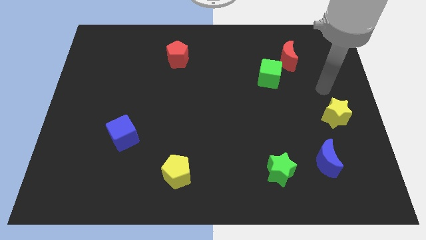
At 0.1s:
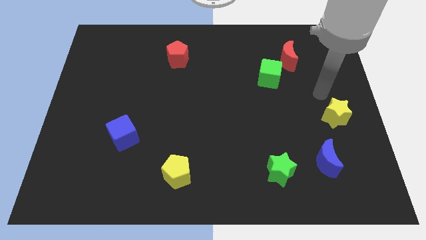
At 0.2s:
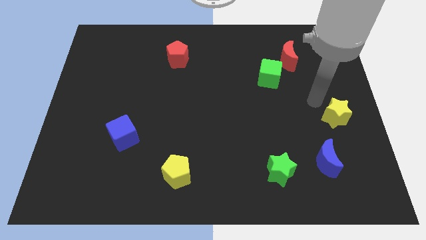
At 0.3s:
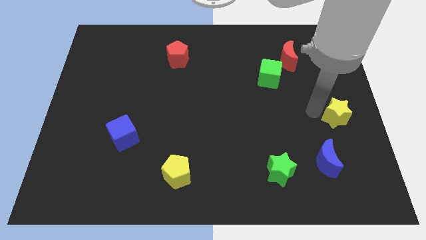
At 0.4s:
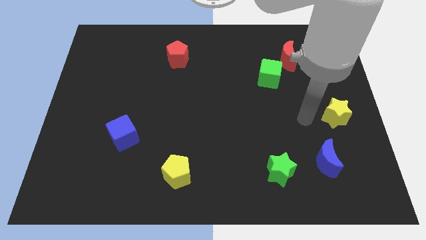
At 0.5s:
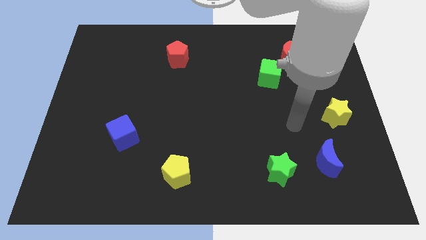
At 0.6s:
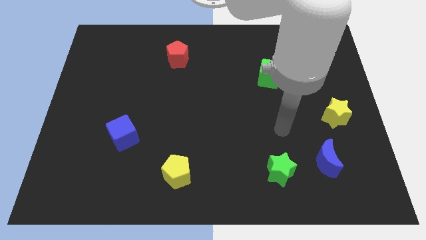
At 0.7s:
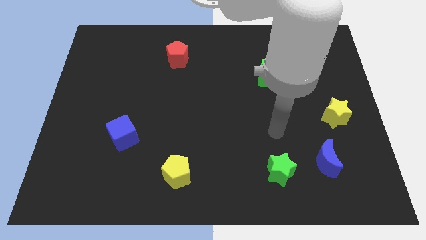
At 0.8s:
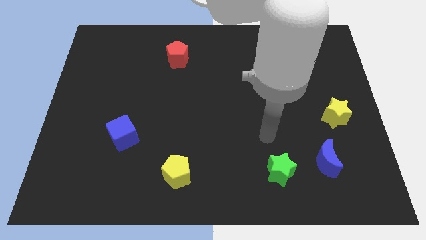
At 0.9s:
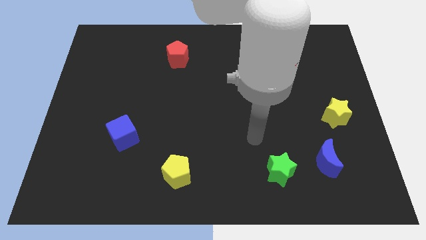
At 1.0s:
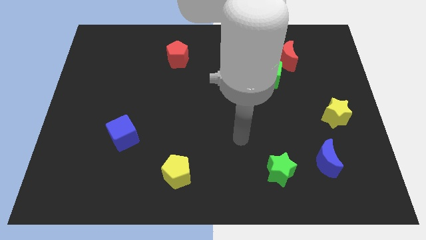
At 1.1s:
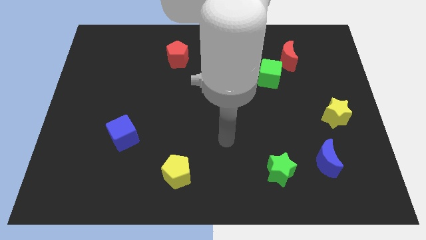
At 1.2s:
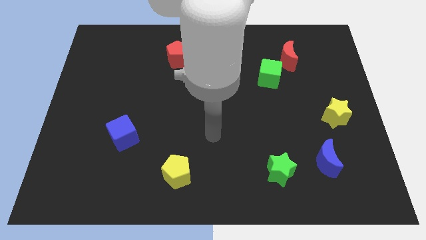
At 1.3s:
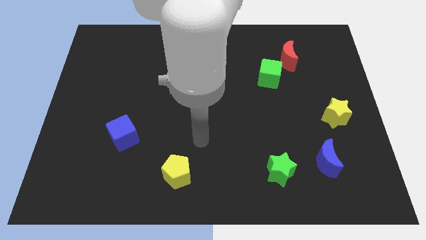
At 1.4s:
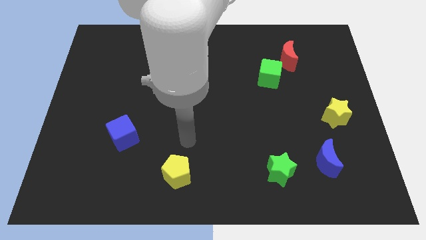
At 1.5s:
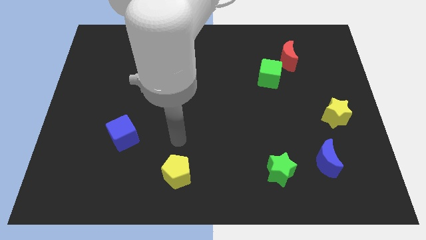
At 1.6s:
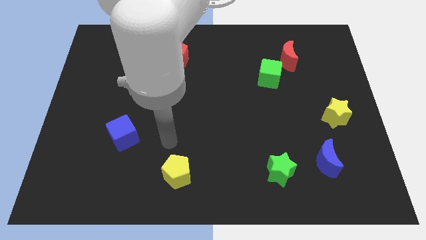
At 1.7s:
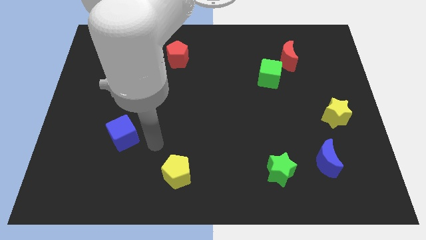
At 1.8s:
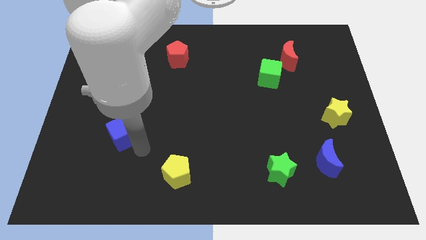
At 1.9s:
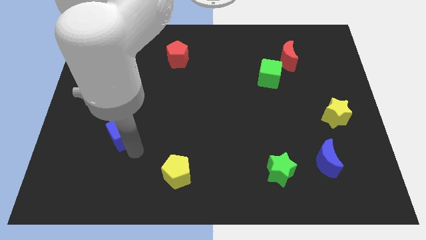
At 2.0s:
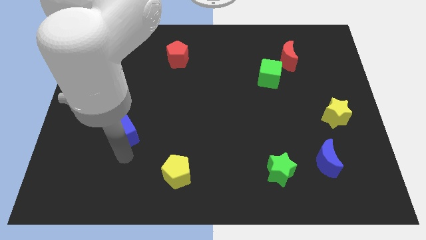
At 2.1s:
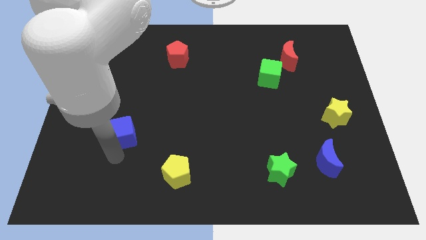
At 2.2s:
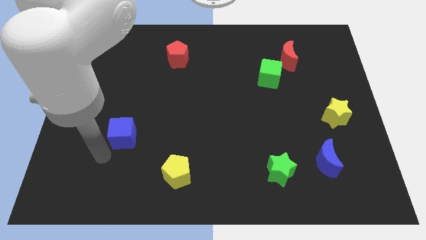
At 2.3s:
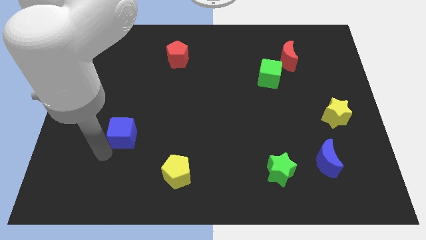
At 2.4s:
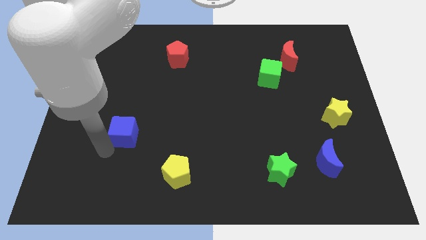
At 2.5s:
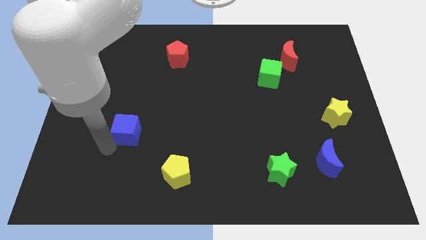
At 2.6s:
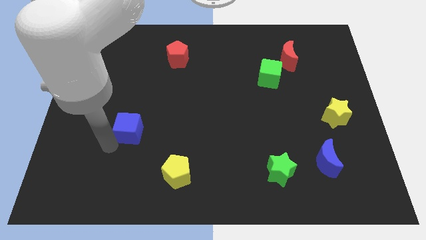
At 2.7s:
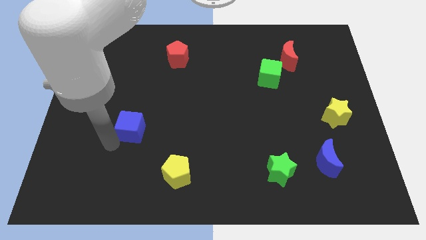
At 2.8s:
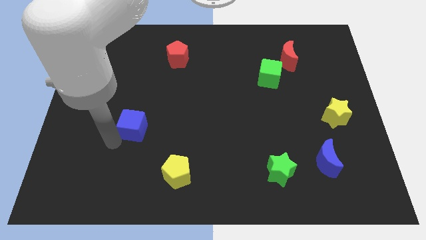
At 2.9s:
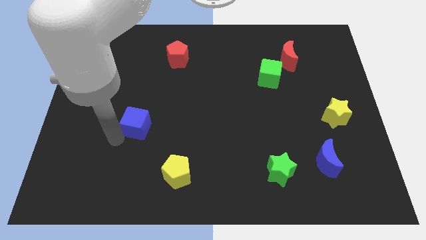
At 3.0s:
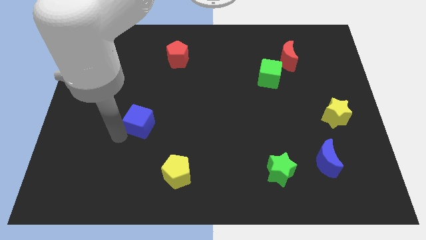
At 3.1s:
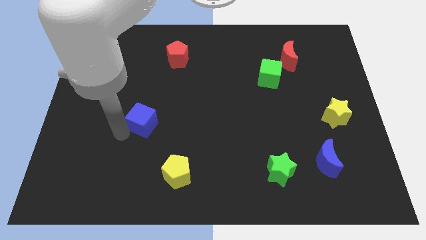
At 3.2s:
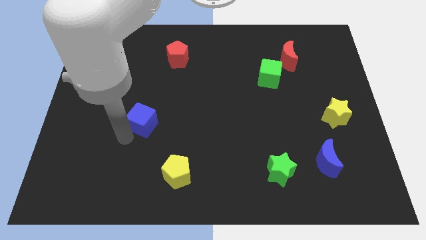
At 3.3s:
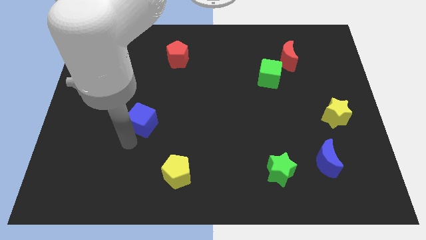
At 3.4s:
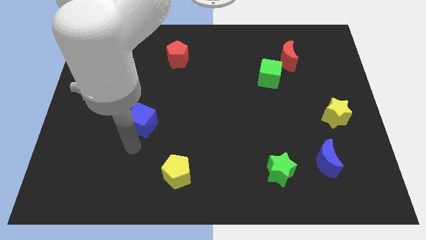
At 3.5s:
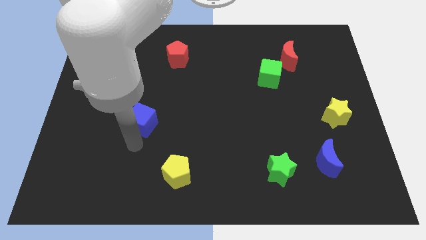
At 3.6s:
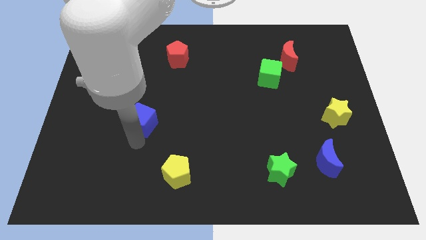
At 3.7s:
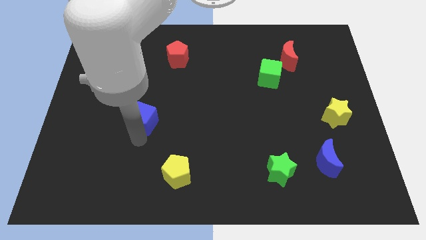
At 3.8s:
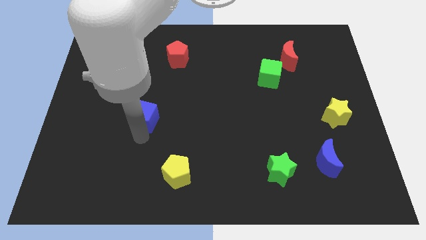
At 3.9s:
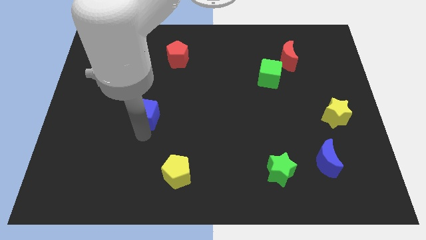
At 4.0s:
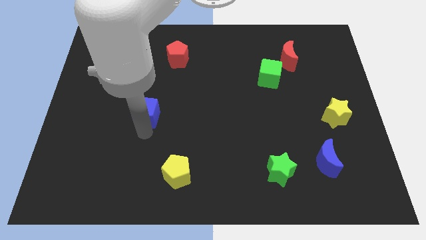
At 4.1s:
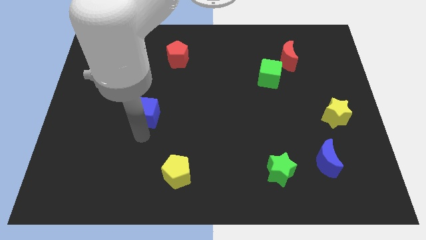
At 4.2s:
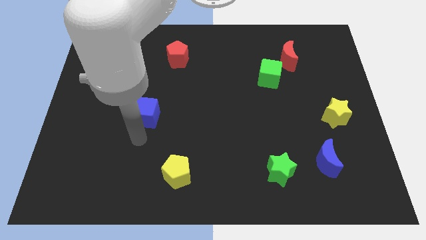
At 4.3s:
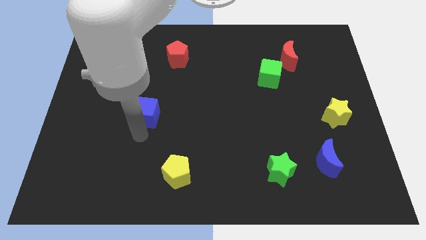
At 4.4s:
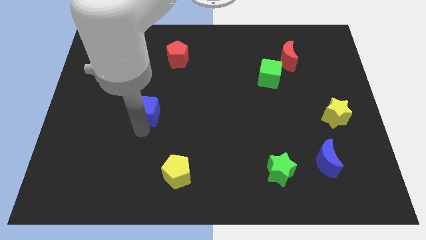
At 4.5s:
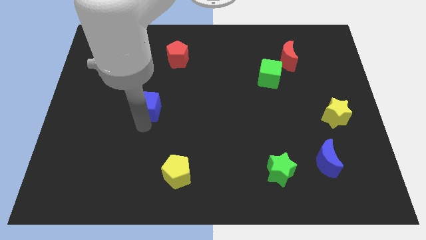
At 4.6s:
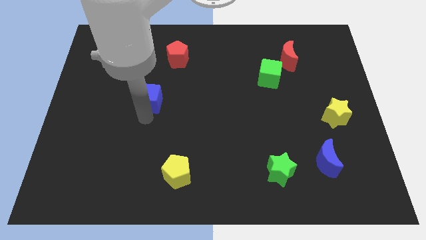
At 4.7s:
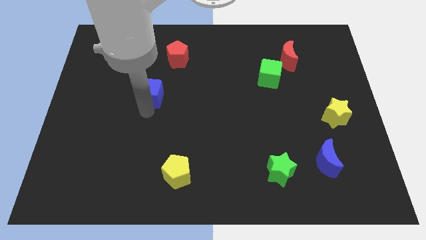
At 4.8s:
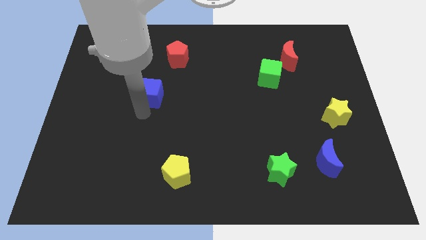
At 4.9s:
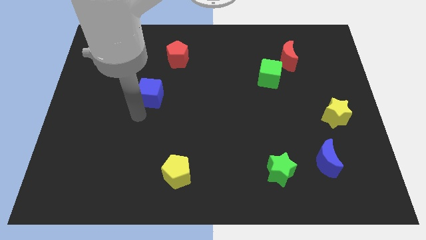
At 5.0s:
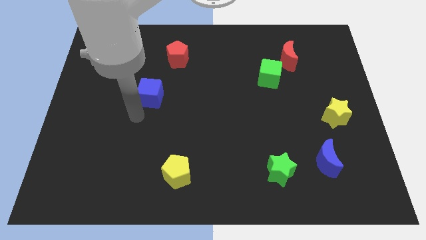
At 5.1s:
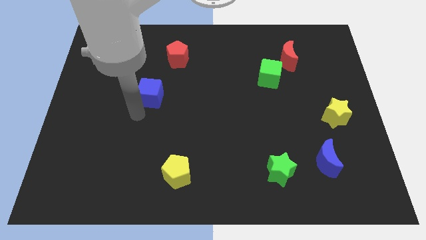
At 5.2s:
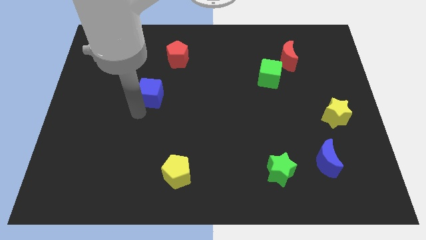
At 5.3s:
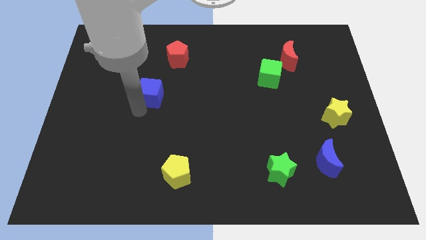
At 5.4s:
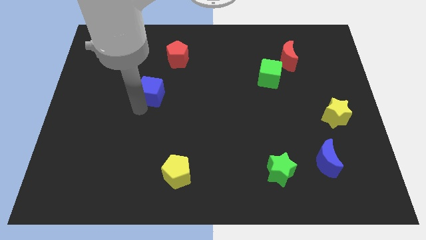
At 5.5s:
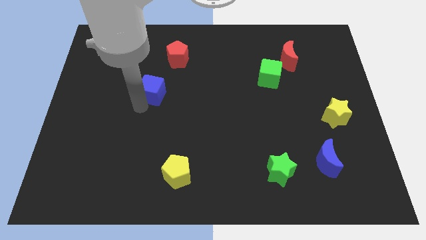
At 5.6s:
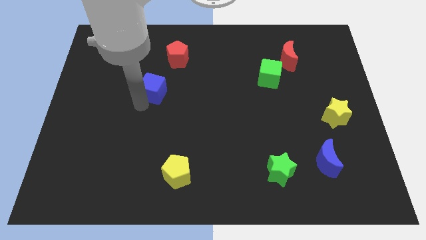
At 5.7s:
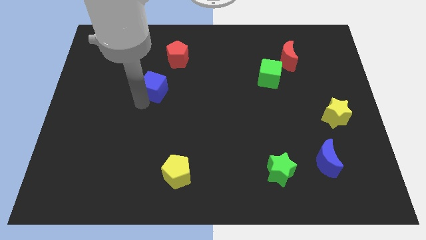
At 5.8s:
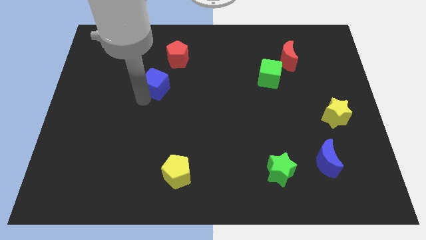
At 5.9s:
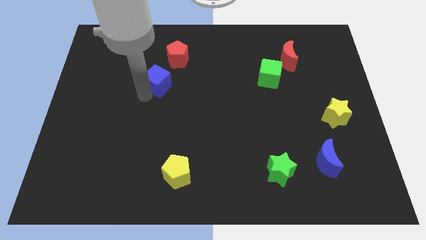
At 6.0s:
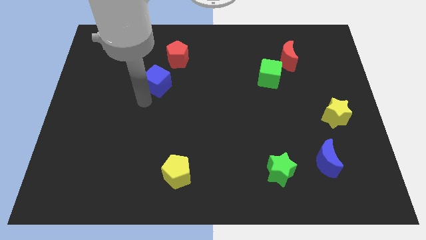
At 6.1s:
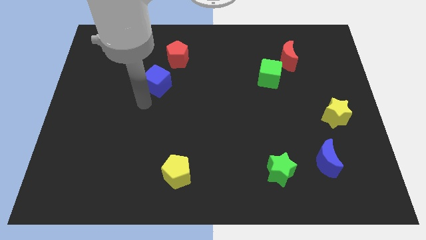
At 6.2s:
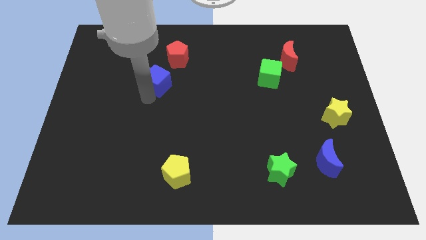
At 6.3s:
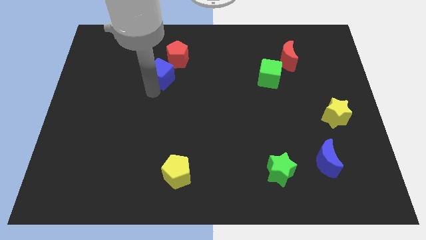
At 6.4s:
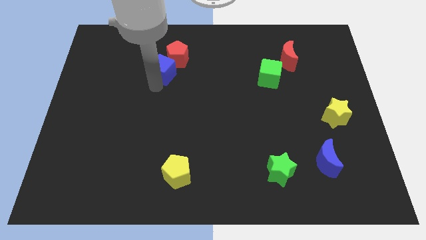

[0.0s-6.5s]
slide the blue cube next to the red pentagon

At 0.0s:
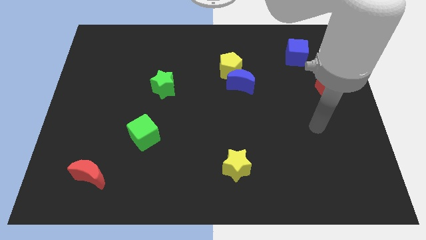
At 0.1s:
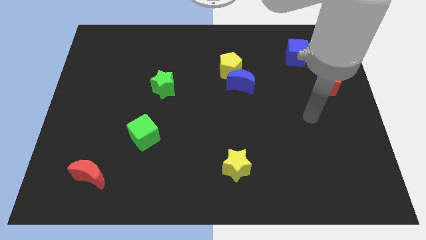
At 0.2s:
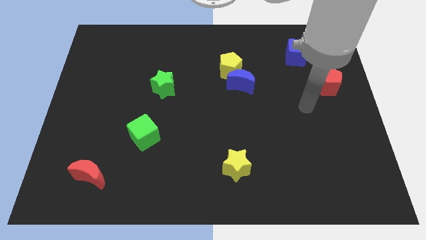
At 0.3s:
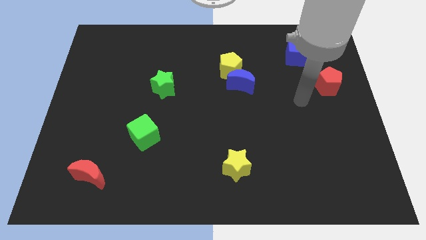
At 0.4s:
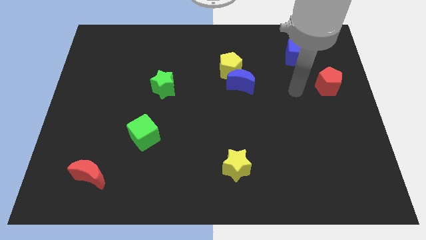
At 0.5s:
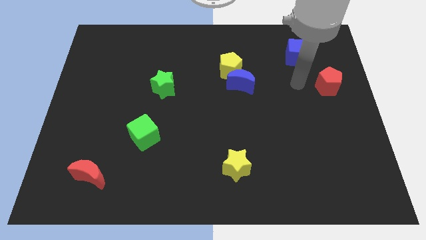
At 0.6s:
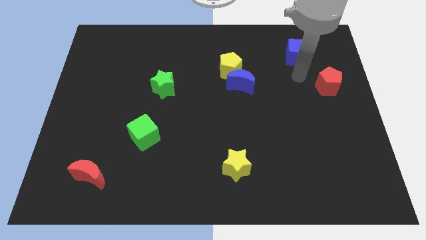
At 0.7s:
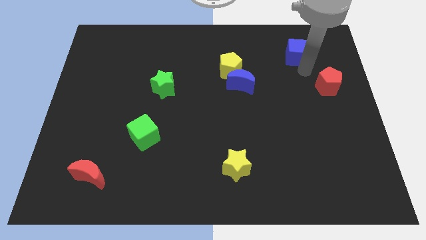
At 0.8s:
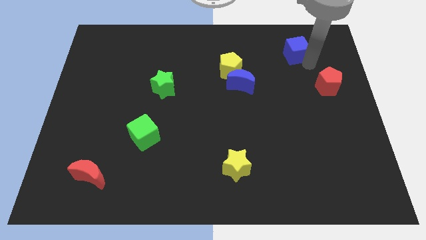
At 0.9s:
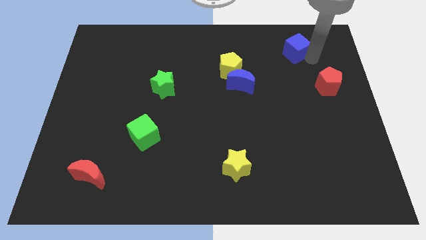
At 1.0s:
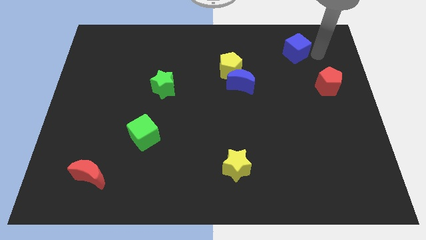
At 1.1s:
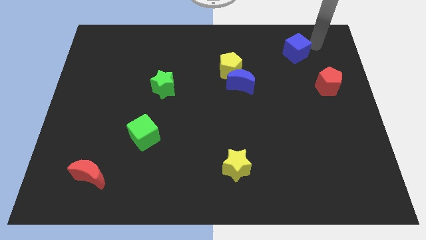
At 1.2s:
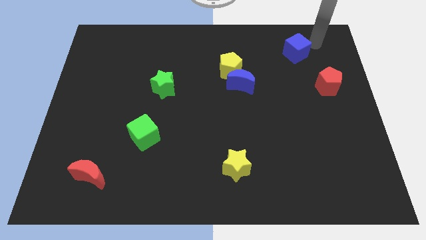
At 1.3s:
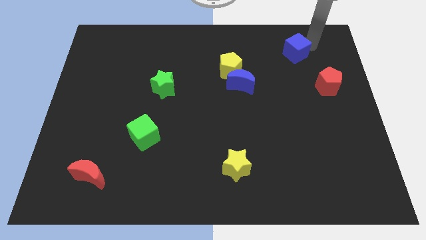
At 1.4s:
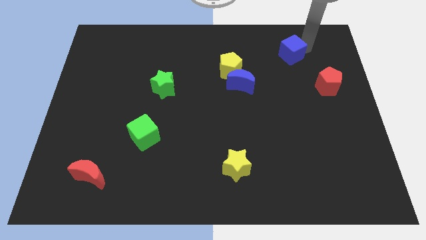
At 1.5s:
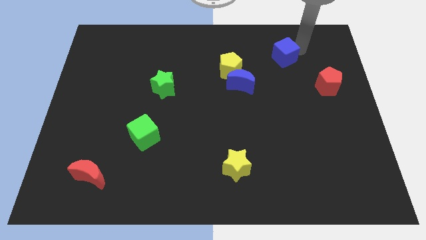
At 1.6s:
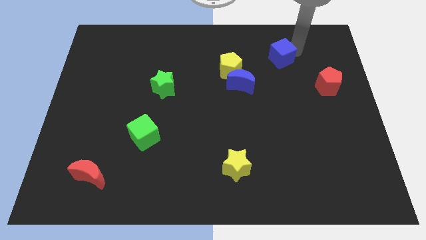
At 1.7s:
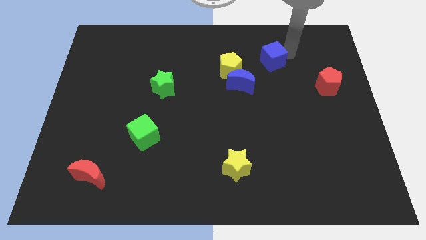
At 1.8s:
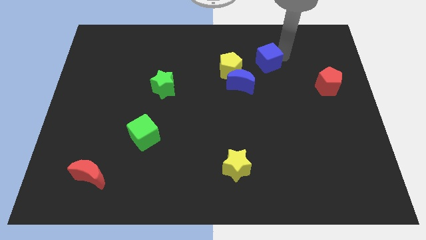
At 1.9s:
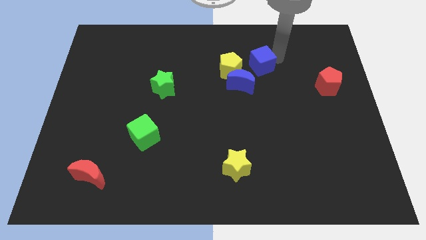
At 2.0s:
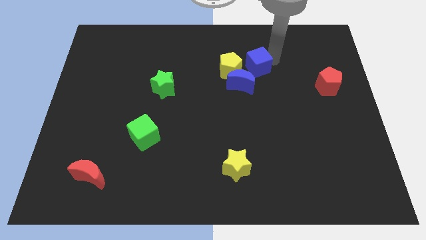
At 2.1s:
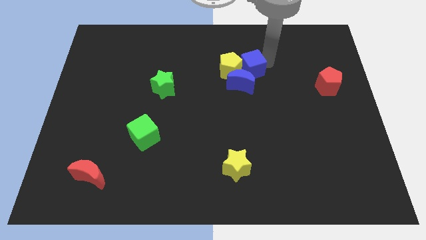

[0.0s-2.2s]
move the blue cube close to the yellow pentagon
